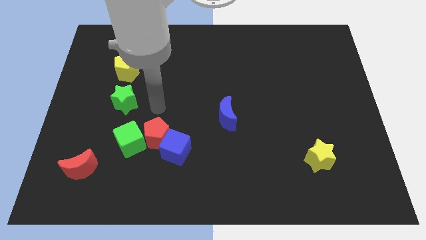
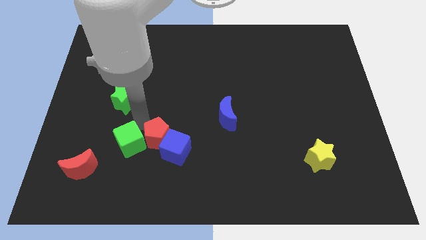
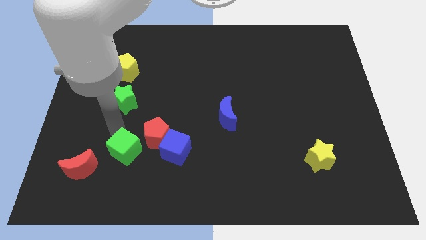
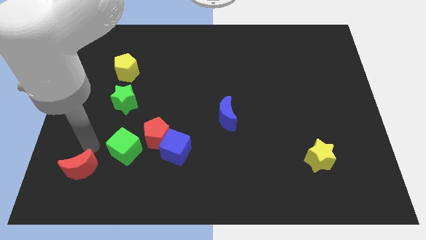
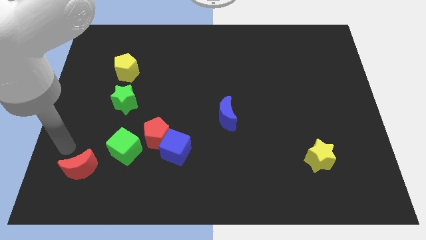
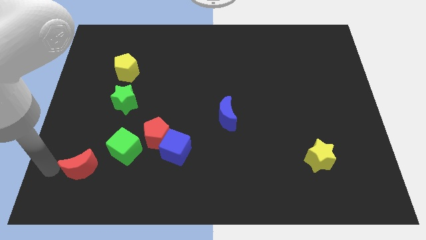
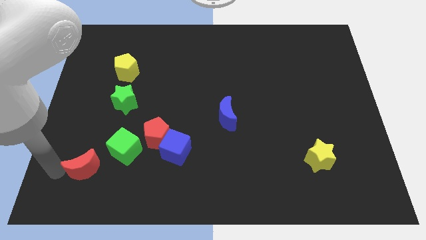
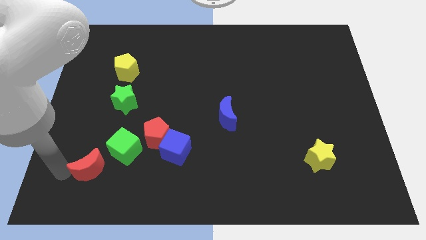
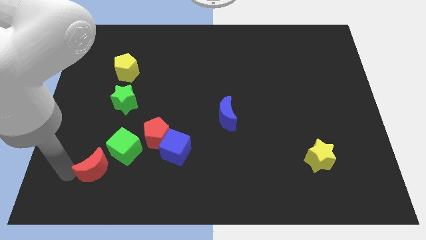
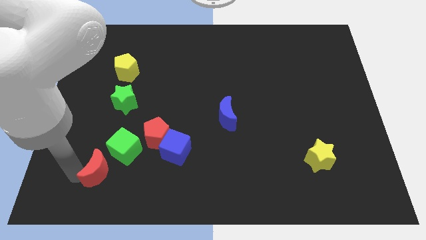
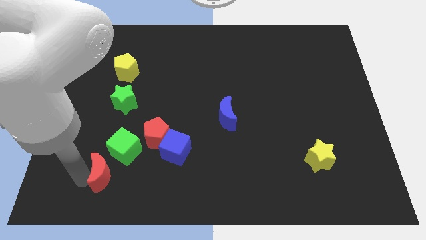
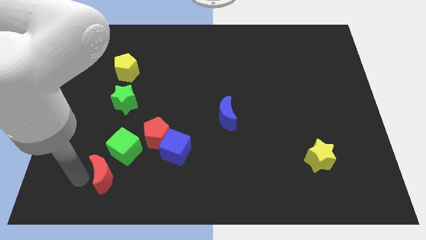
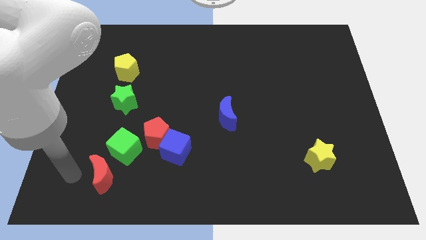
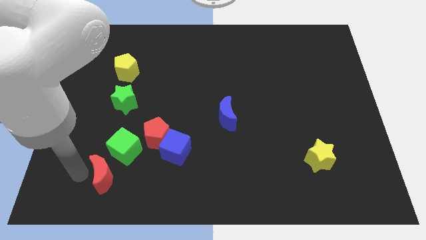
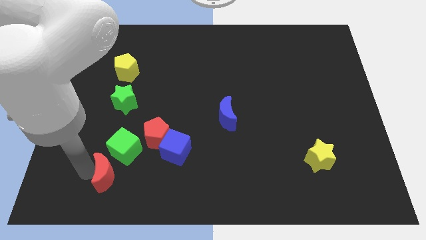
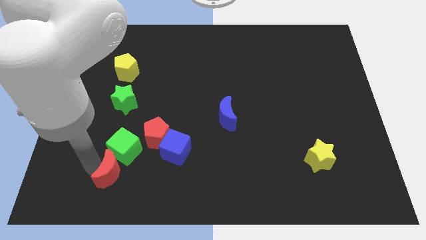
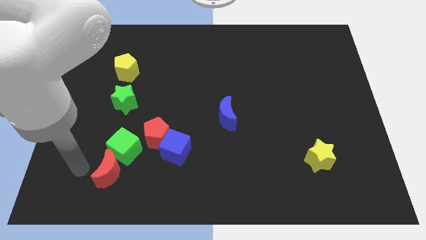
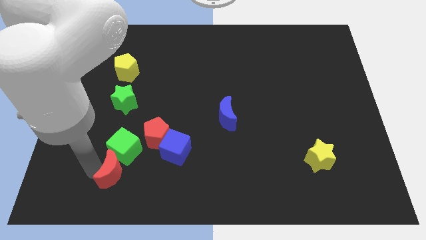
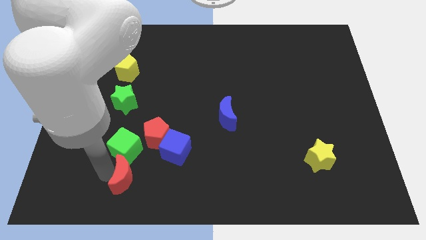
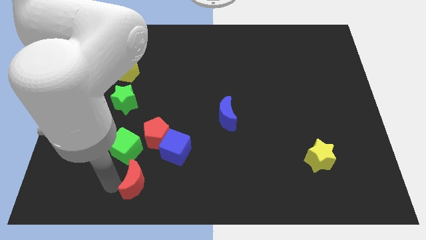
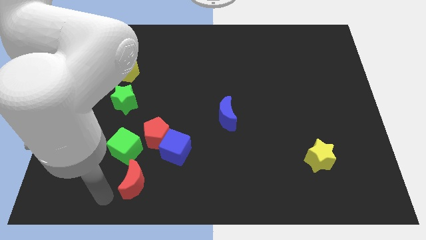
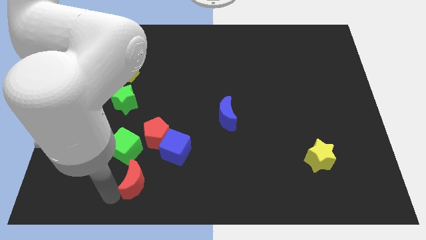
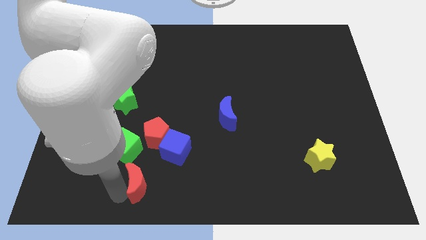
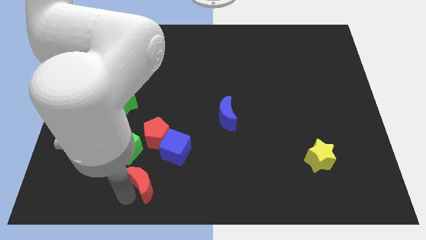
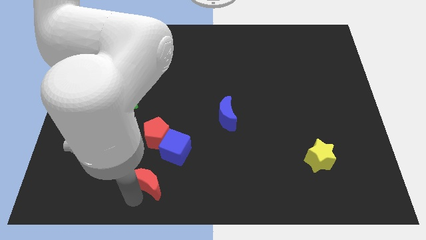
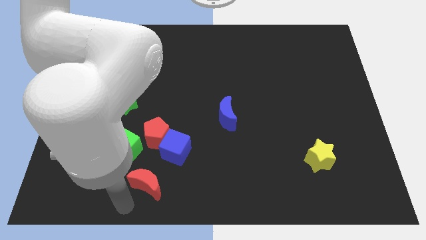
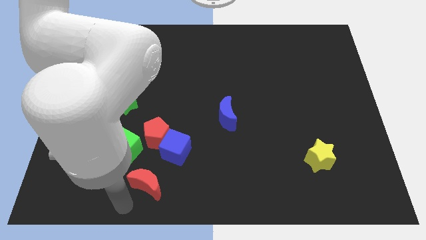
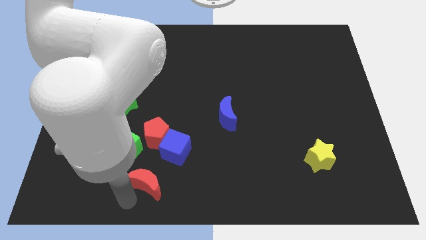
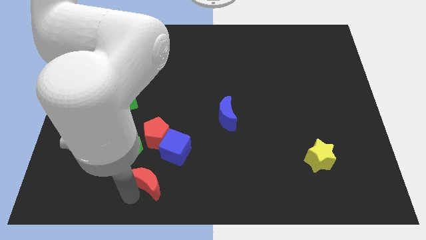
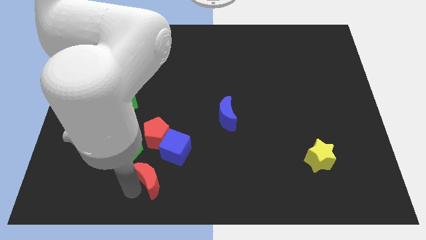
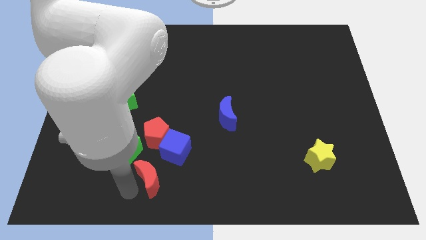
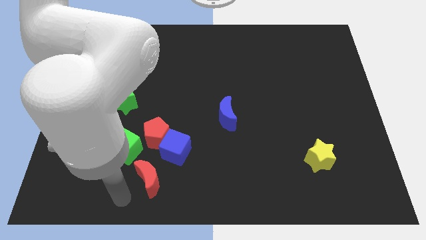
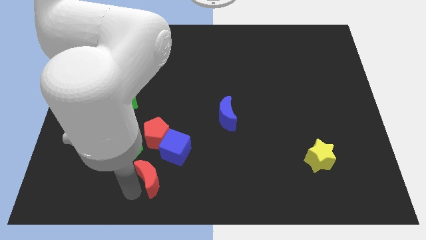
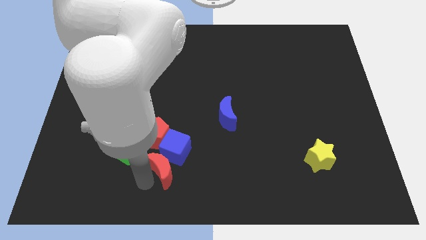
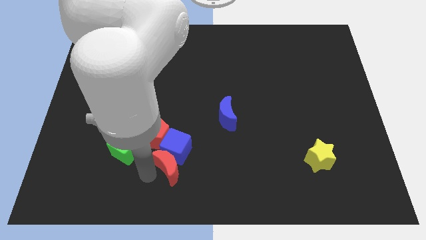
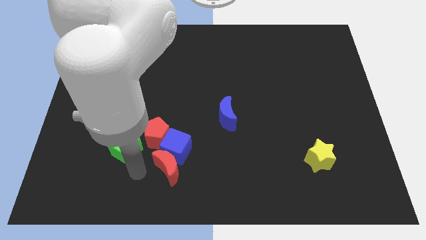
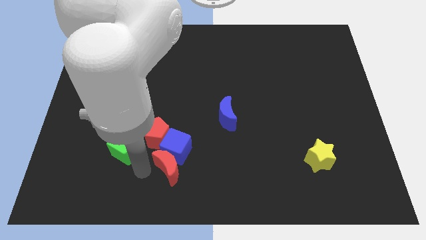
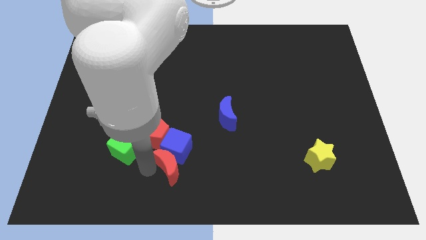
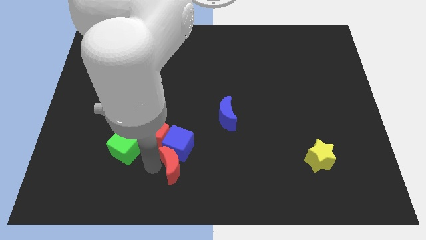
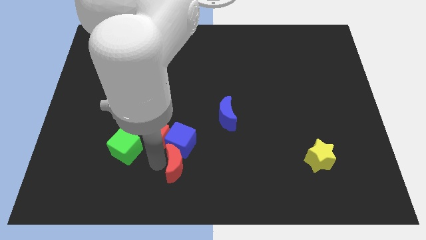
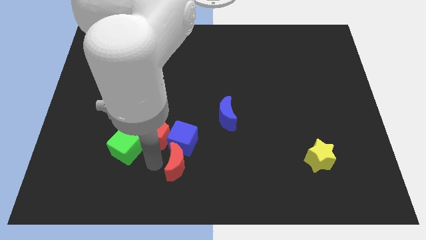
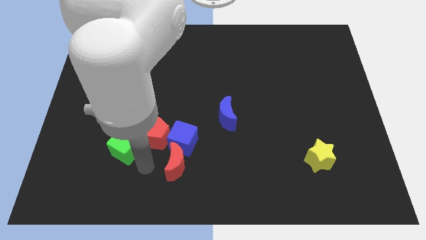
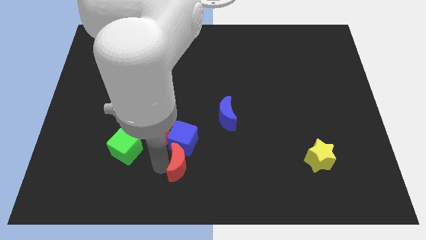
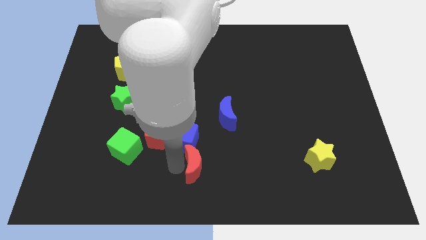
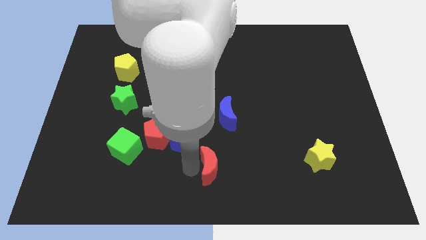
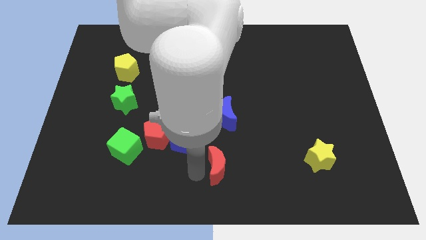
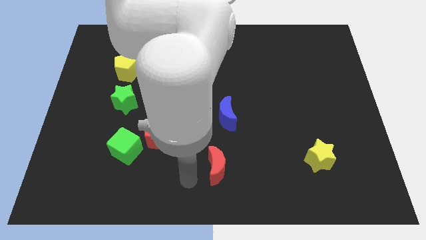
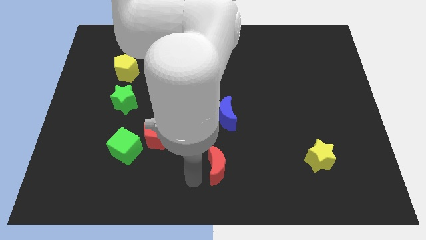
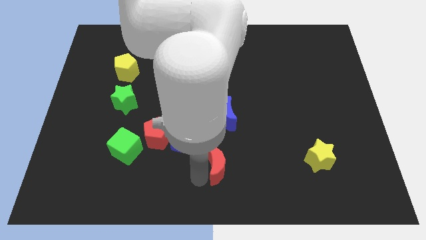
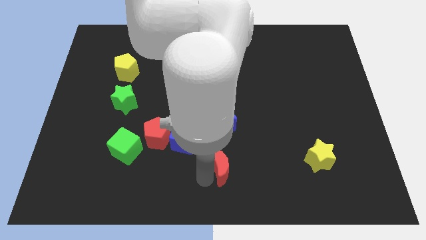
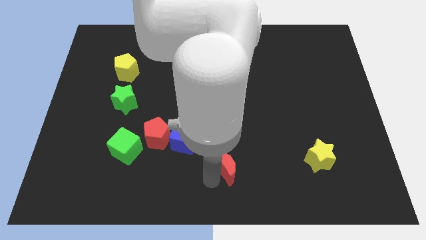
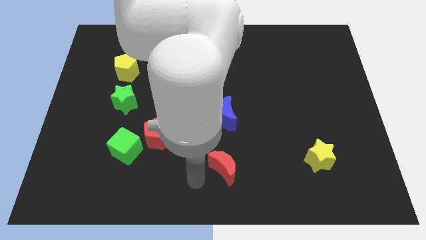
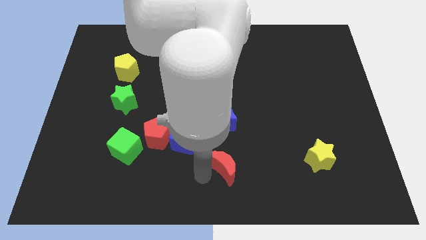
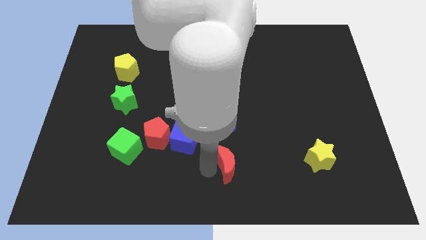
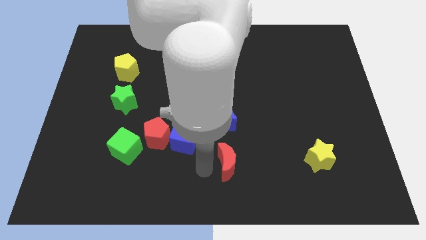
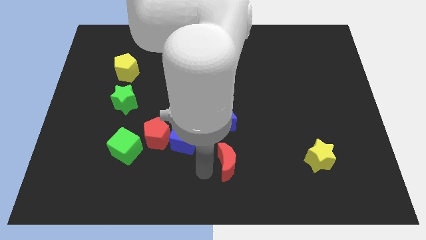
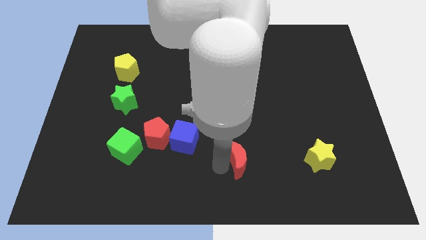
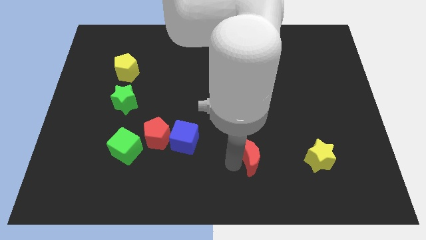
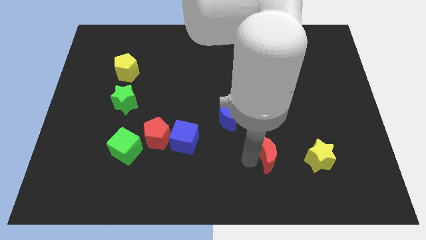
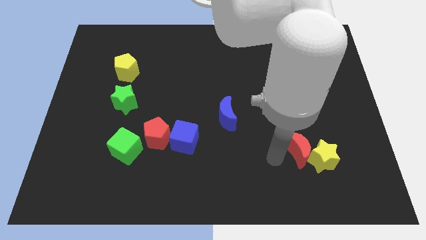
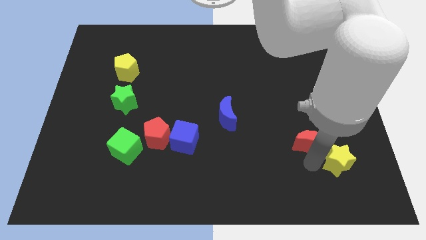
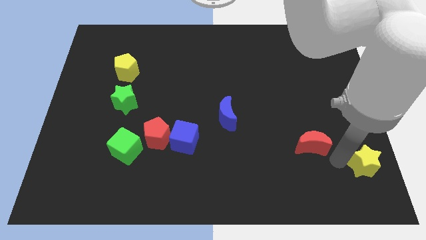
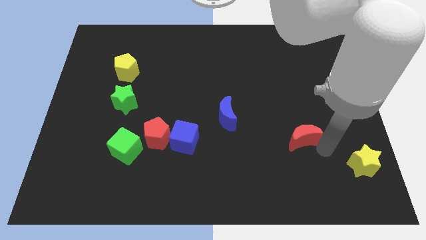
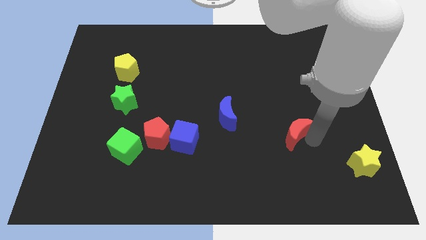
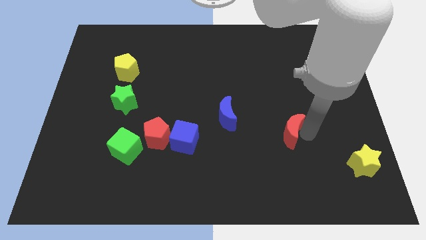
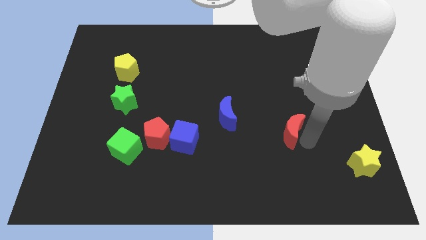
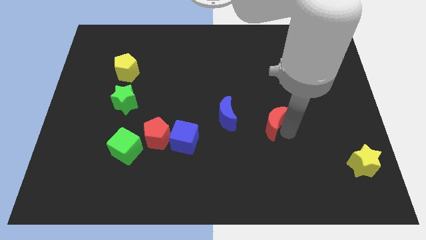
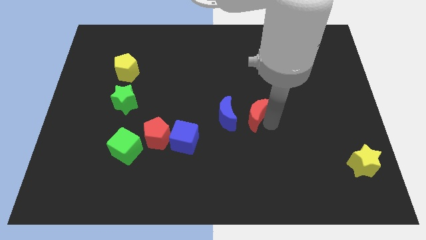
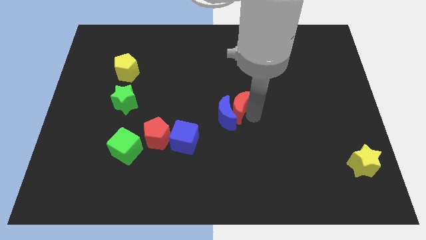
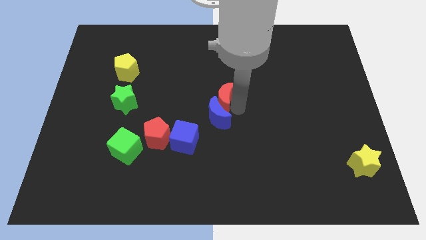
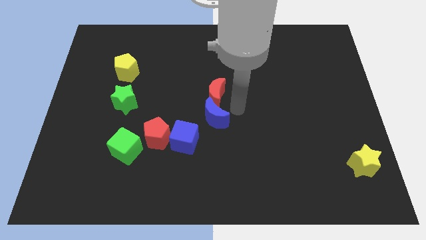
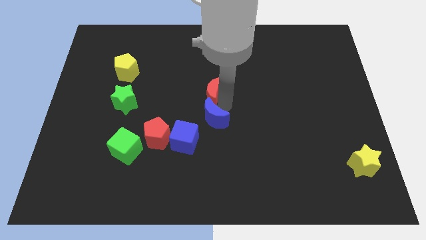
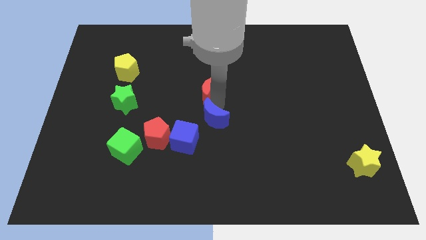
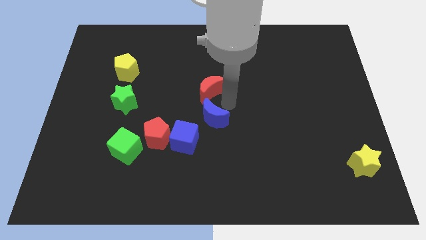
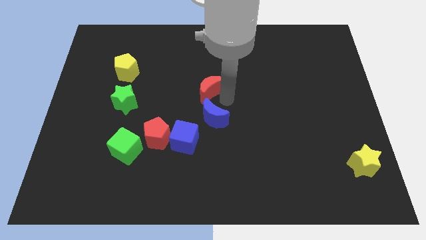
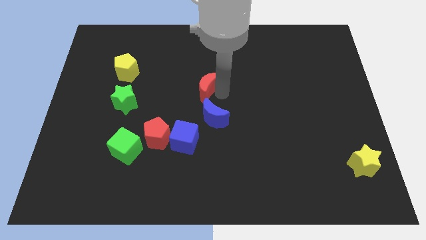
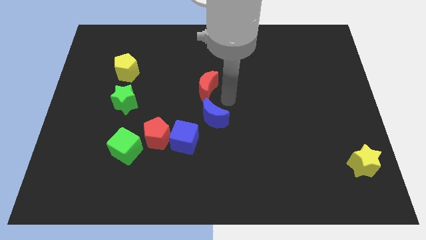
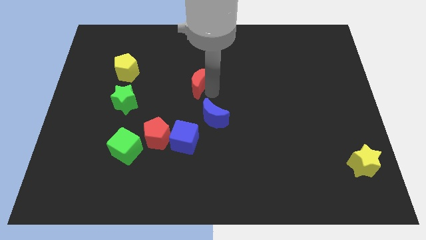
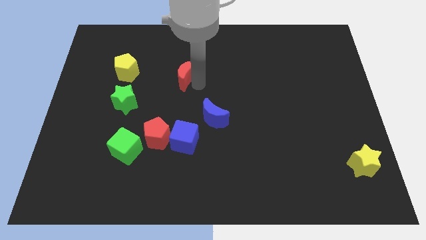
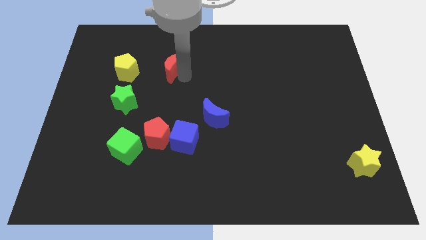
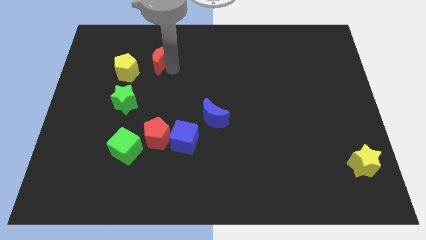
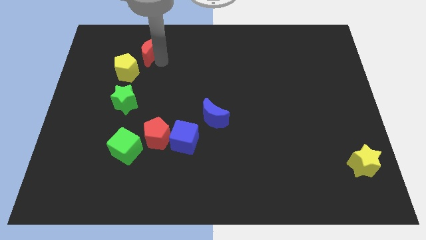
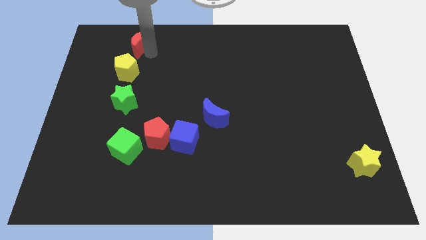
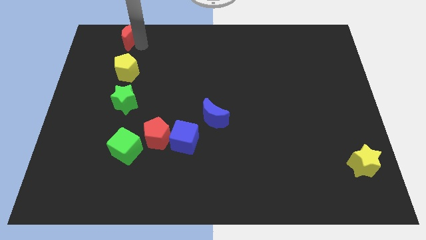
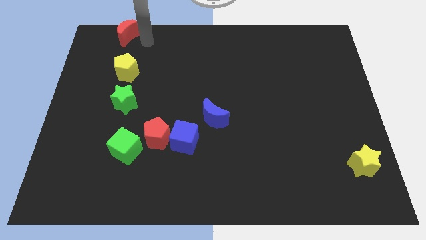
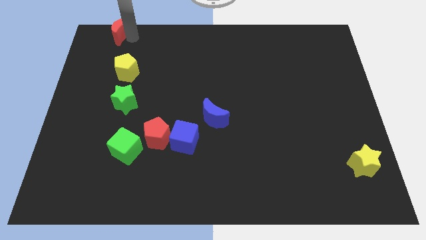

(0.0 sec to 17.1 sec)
push the red moon to the upper left corner
